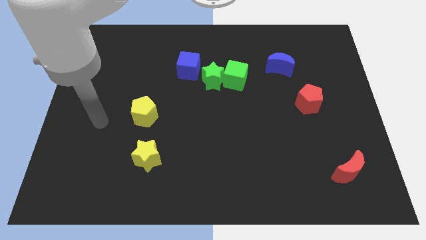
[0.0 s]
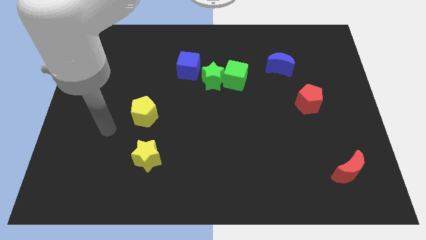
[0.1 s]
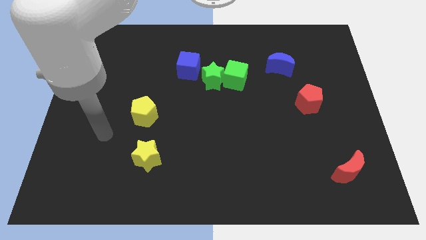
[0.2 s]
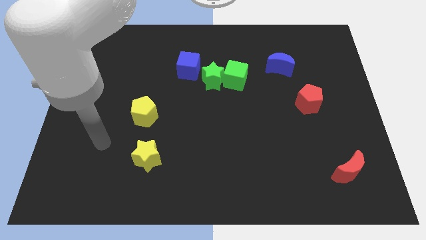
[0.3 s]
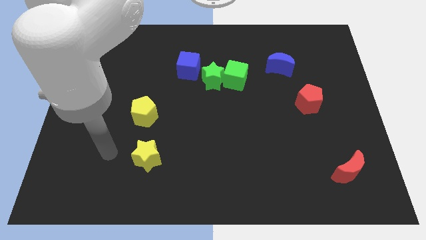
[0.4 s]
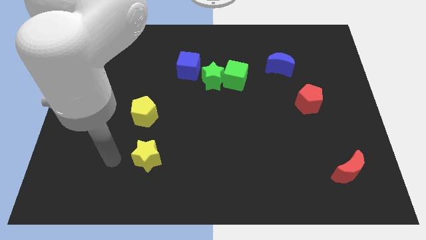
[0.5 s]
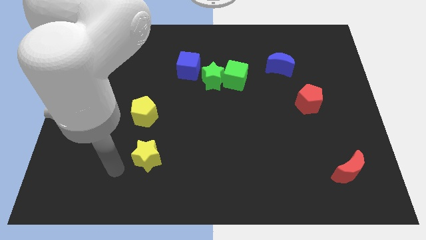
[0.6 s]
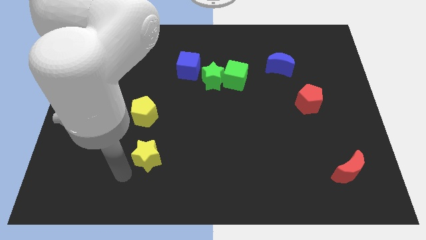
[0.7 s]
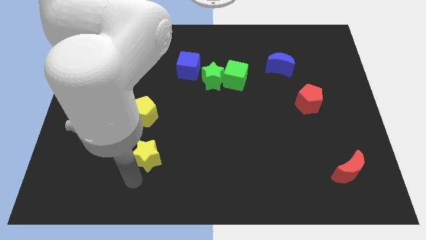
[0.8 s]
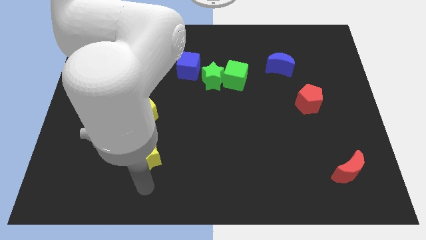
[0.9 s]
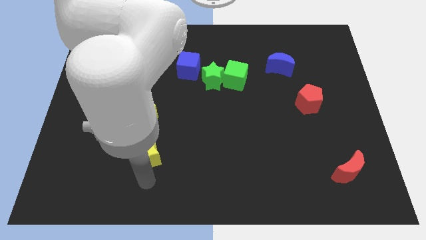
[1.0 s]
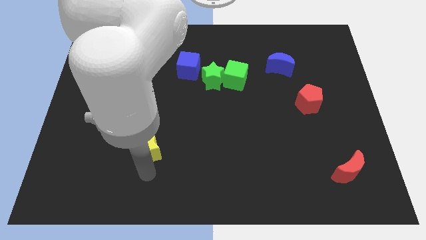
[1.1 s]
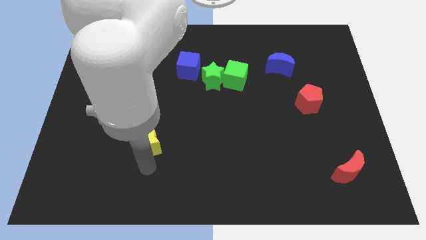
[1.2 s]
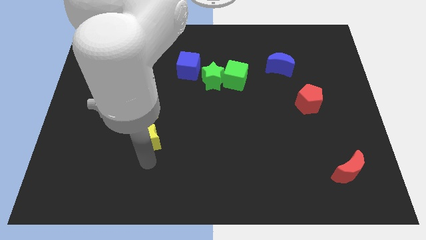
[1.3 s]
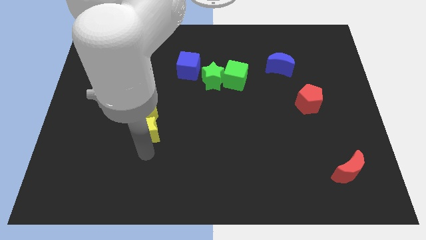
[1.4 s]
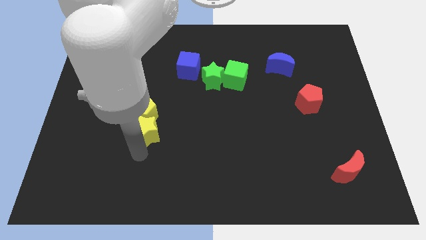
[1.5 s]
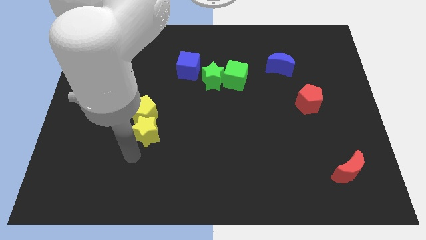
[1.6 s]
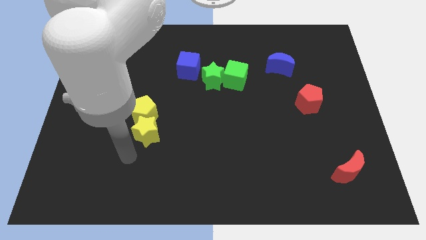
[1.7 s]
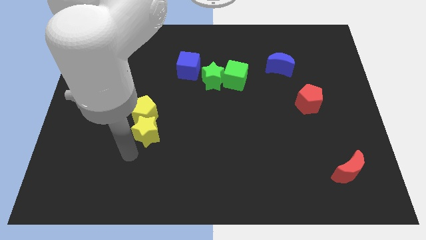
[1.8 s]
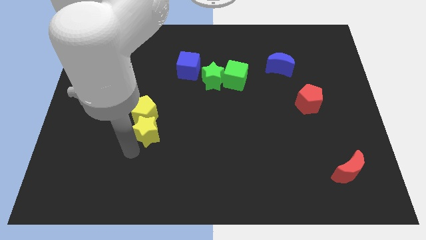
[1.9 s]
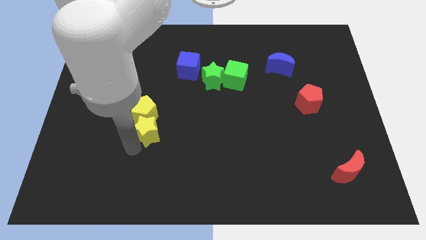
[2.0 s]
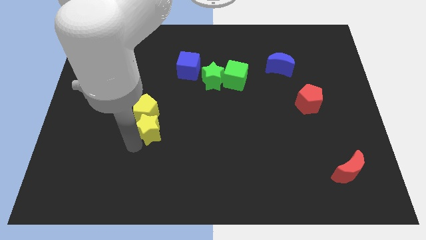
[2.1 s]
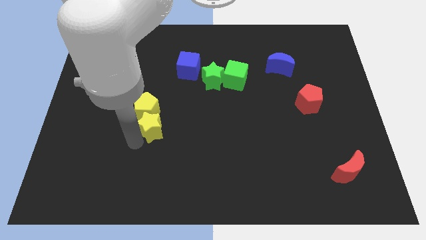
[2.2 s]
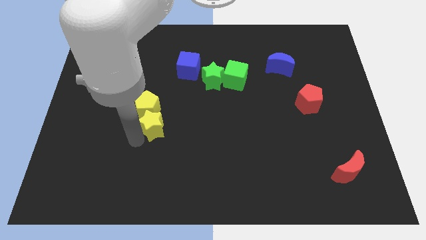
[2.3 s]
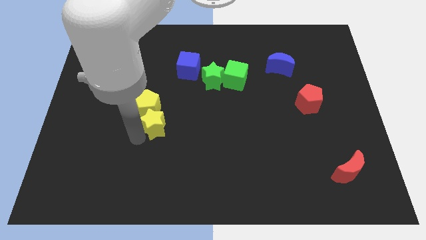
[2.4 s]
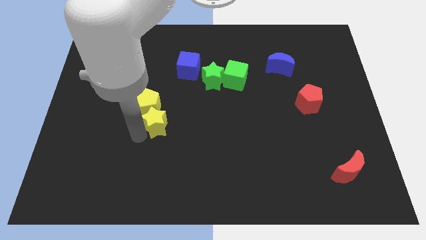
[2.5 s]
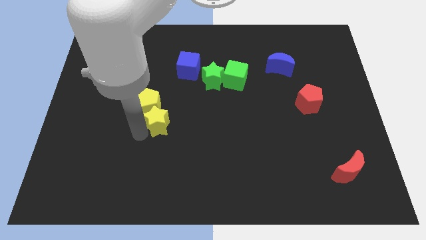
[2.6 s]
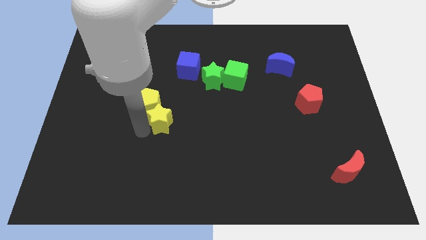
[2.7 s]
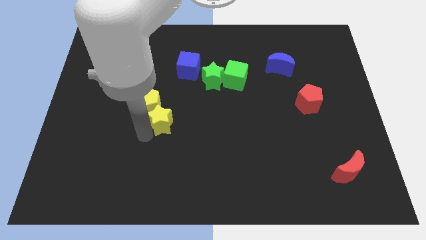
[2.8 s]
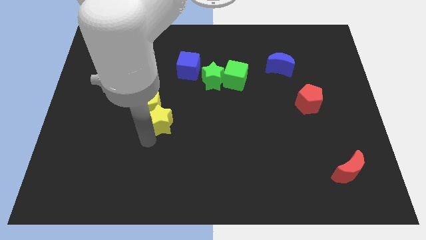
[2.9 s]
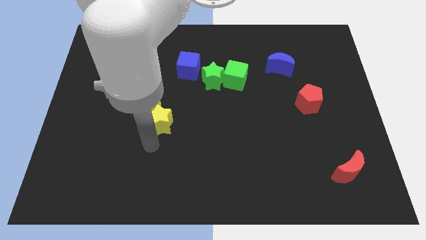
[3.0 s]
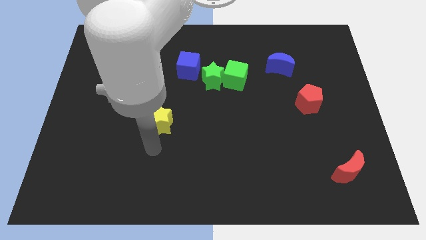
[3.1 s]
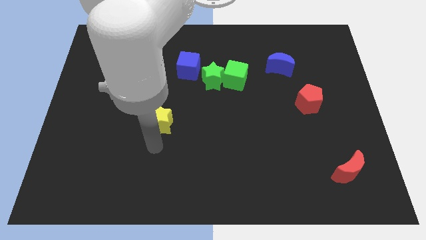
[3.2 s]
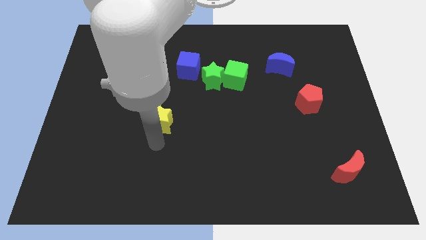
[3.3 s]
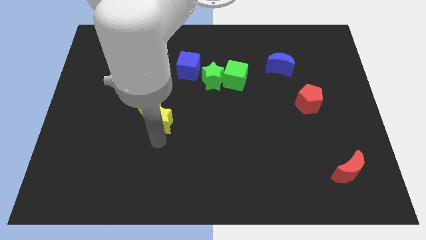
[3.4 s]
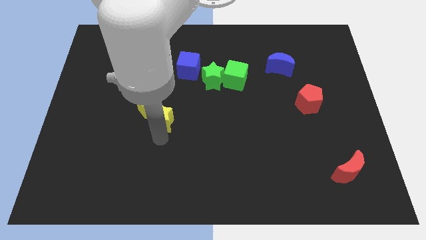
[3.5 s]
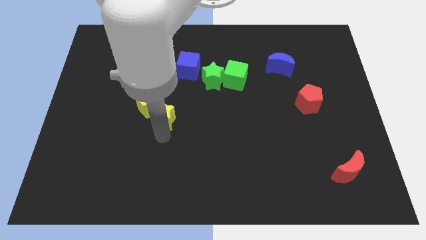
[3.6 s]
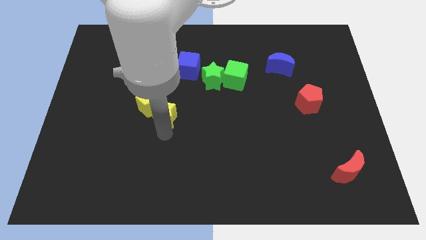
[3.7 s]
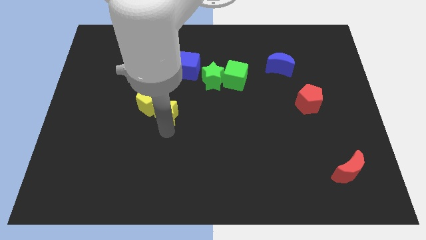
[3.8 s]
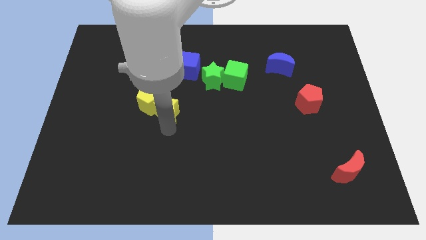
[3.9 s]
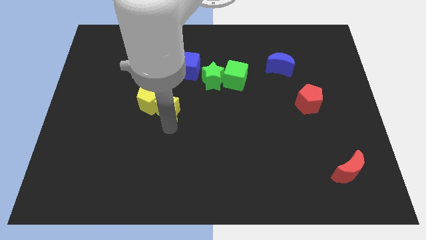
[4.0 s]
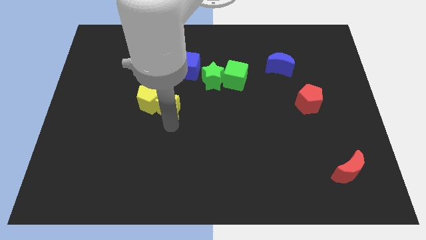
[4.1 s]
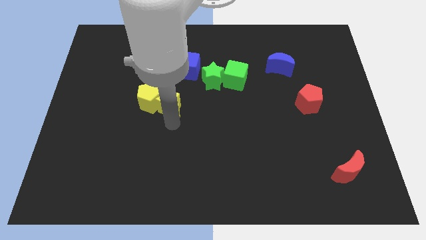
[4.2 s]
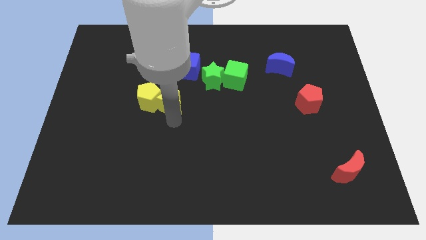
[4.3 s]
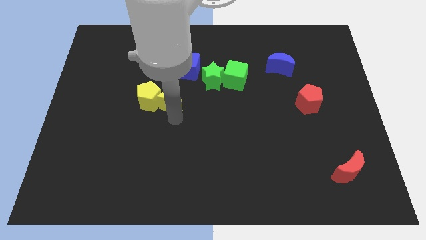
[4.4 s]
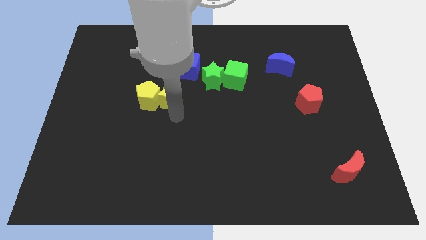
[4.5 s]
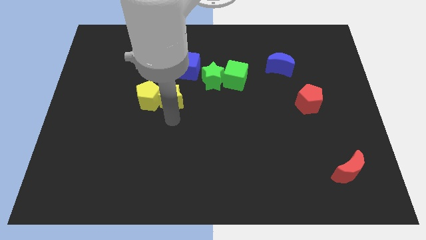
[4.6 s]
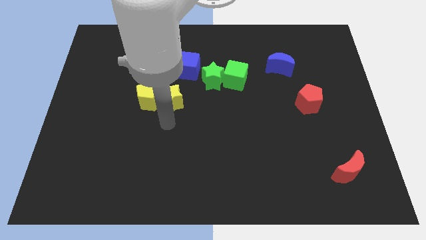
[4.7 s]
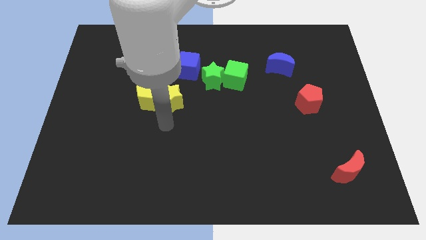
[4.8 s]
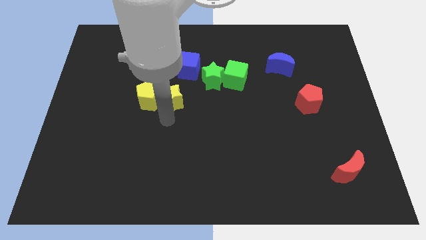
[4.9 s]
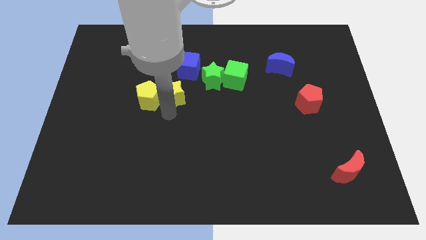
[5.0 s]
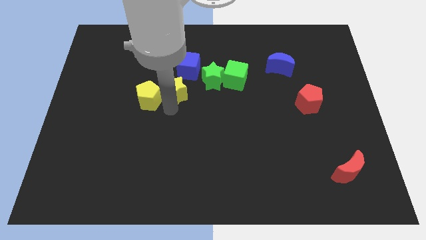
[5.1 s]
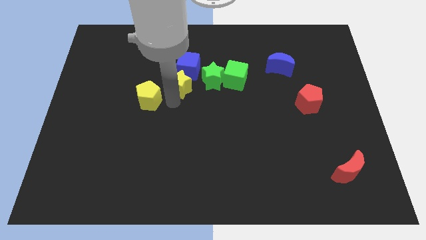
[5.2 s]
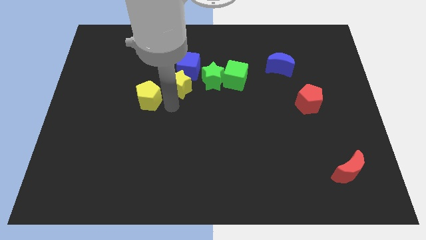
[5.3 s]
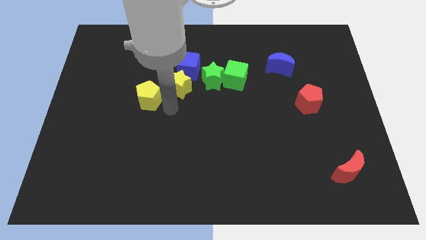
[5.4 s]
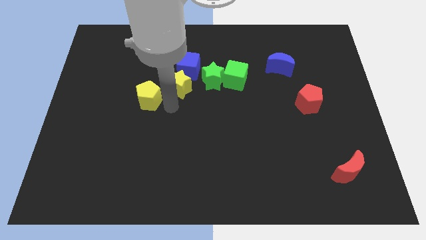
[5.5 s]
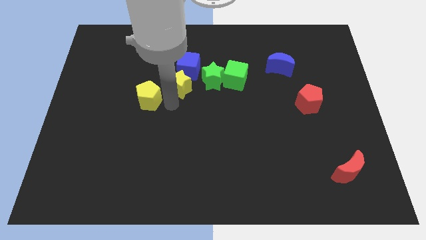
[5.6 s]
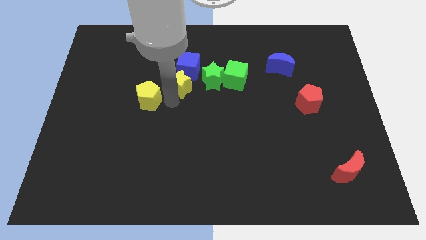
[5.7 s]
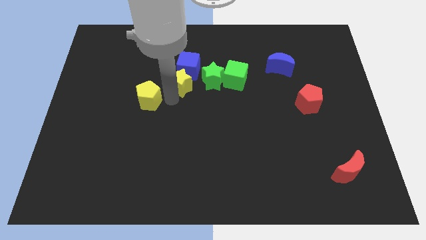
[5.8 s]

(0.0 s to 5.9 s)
move the yellow star to the blue cube

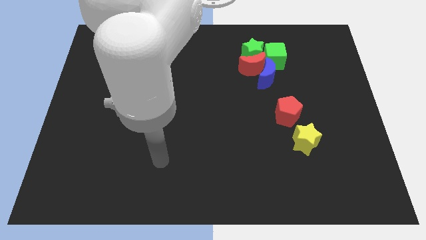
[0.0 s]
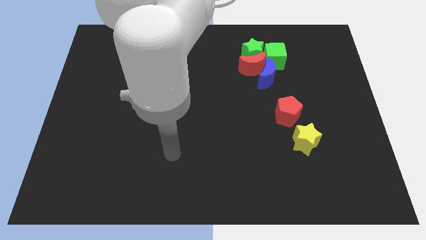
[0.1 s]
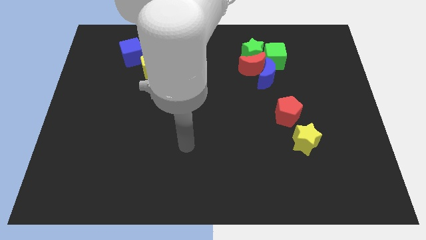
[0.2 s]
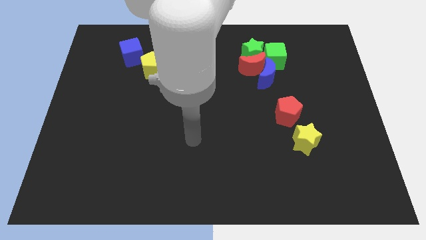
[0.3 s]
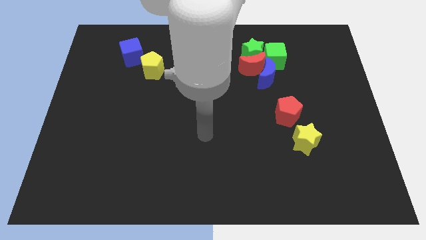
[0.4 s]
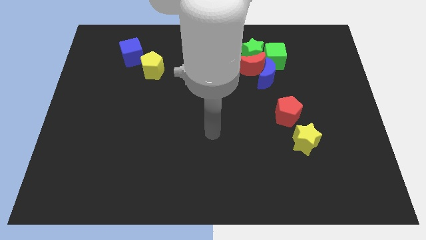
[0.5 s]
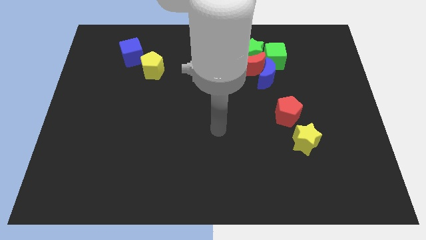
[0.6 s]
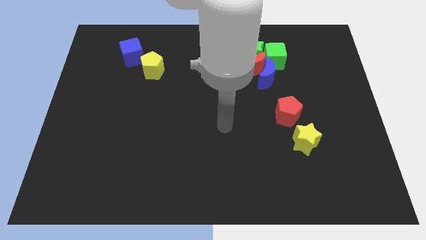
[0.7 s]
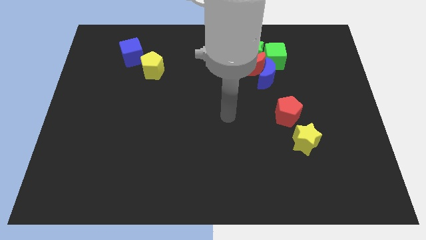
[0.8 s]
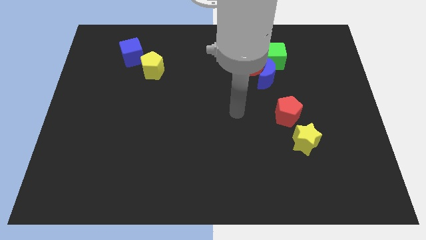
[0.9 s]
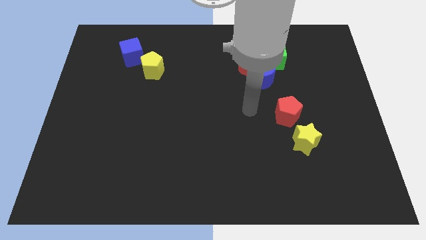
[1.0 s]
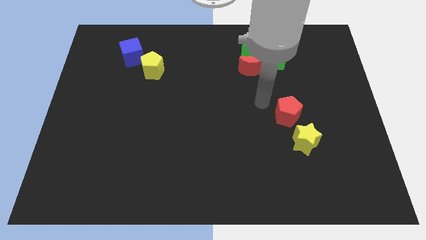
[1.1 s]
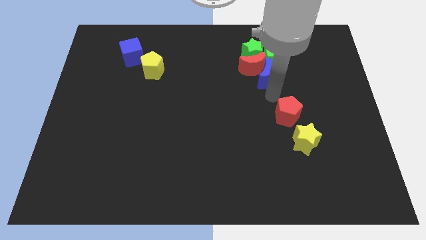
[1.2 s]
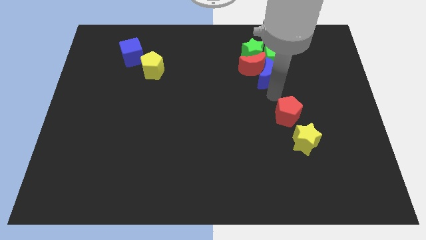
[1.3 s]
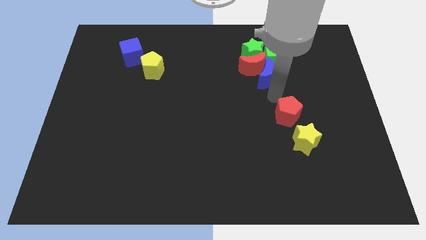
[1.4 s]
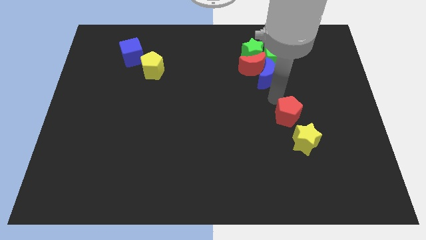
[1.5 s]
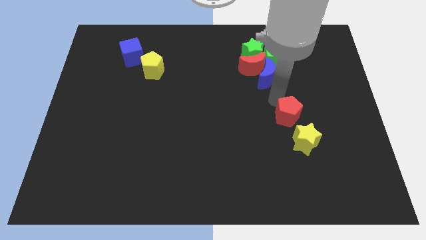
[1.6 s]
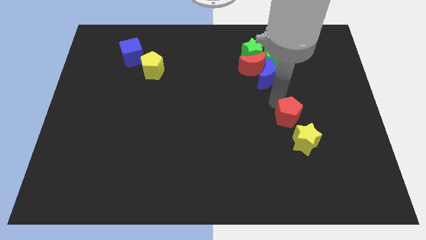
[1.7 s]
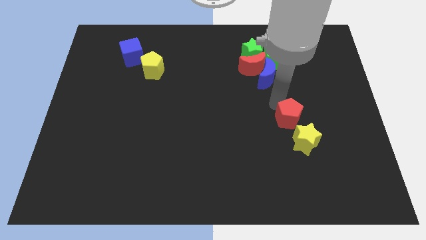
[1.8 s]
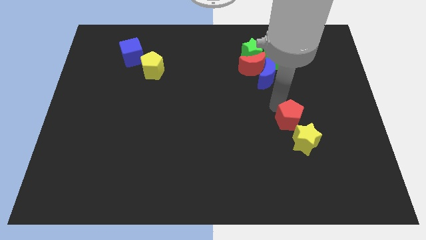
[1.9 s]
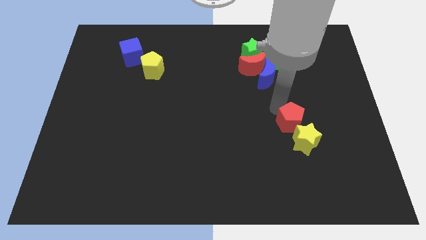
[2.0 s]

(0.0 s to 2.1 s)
put the red pentagon towards the yellow star
